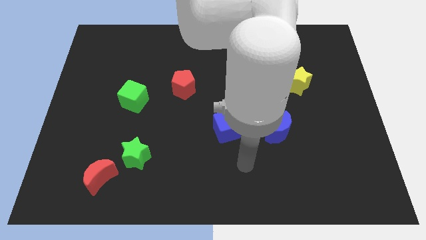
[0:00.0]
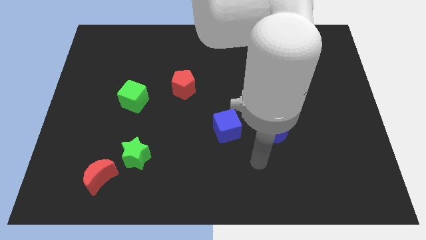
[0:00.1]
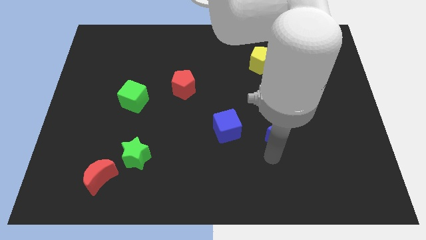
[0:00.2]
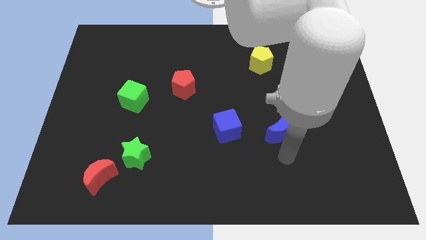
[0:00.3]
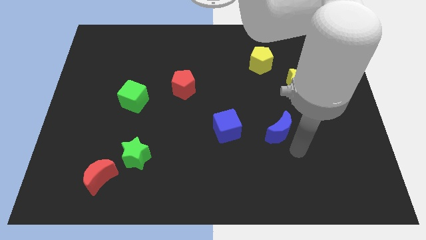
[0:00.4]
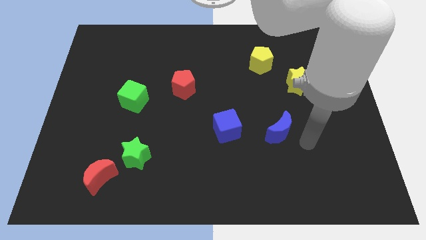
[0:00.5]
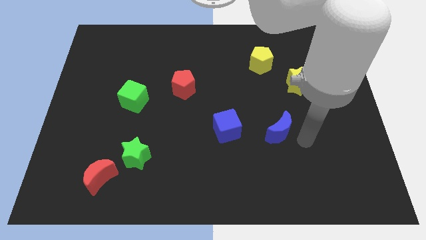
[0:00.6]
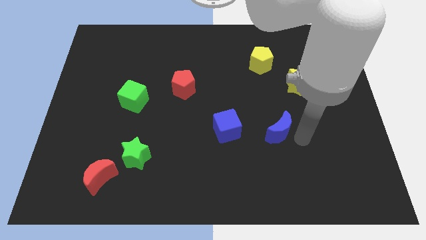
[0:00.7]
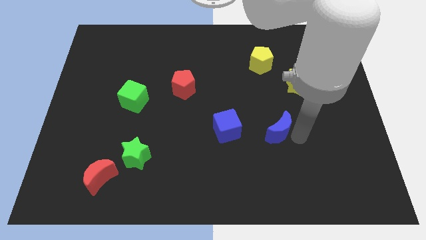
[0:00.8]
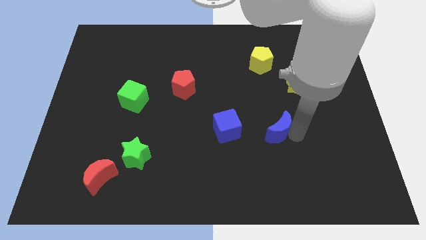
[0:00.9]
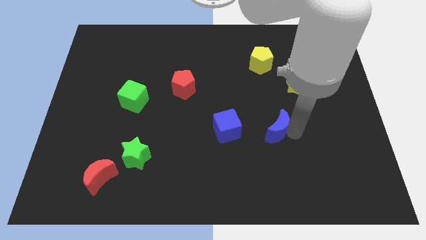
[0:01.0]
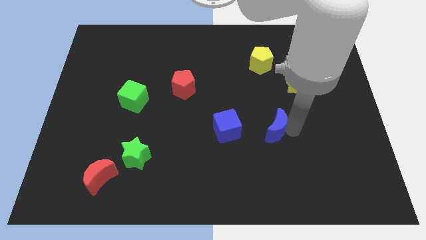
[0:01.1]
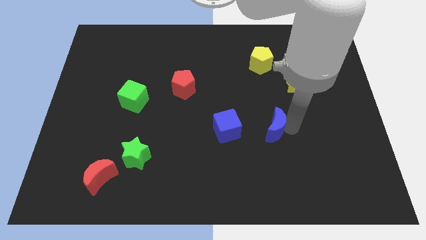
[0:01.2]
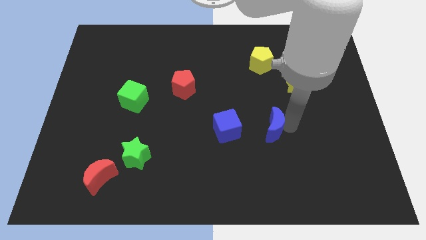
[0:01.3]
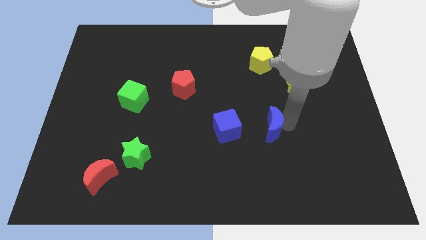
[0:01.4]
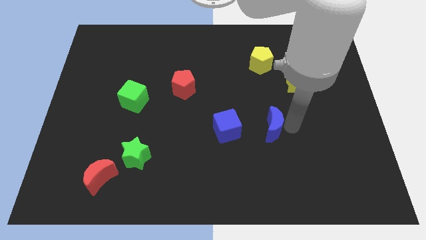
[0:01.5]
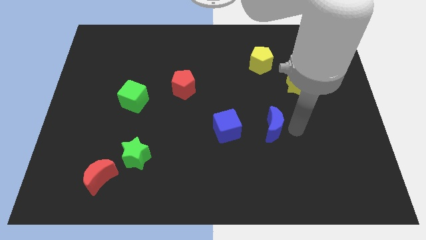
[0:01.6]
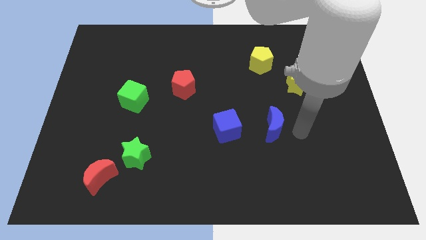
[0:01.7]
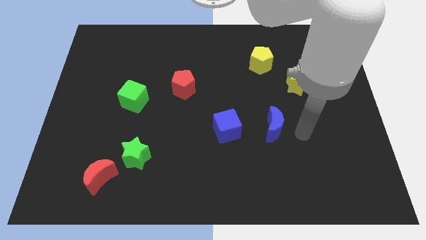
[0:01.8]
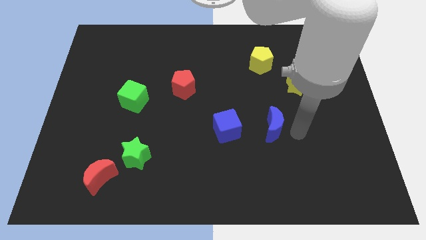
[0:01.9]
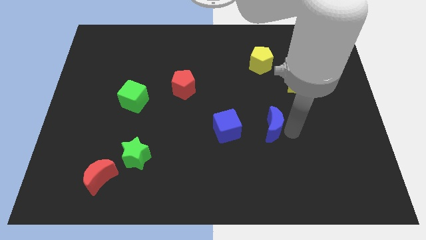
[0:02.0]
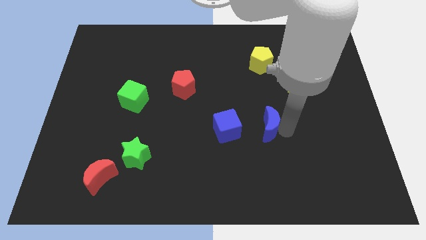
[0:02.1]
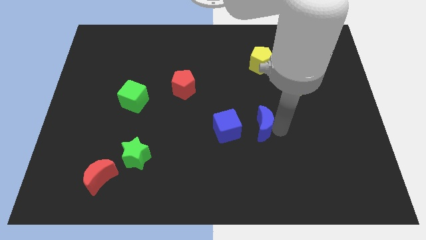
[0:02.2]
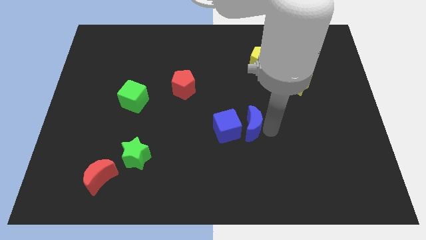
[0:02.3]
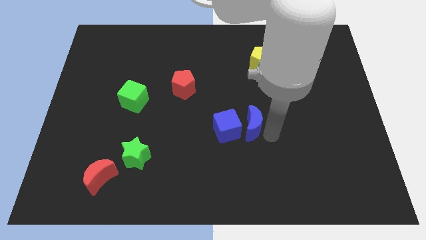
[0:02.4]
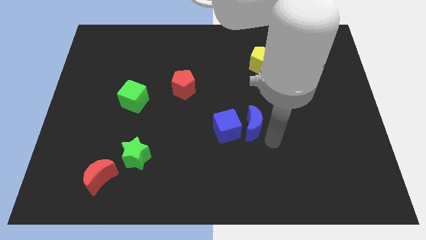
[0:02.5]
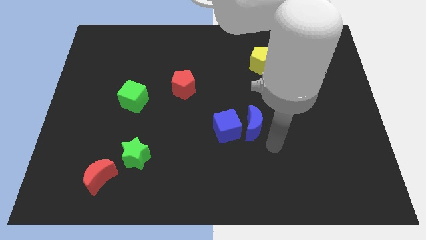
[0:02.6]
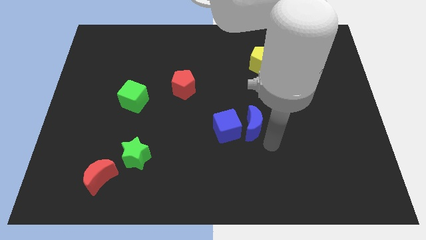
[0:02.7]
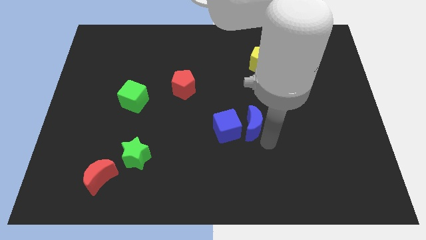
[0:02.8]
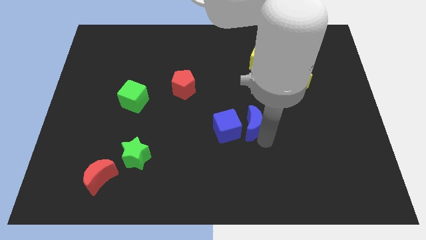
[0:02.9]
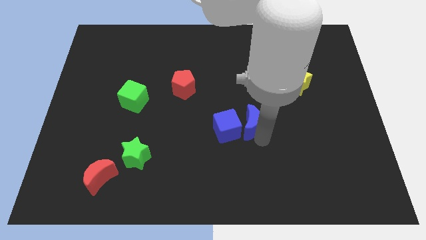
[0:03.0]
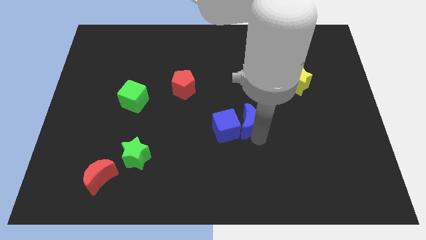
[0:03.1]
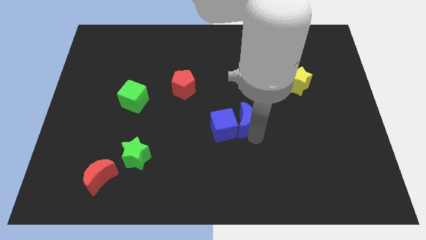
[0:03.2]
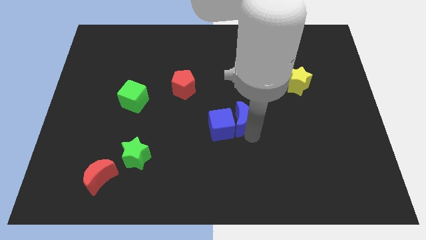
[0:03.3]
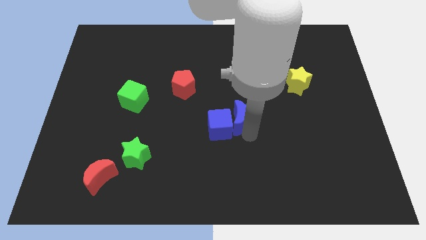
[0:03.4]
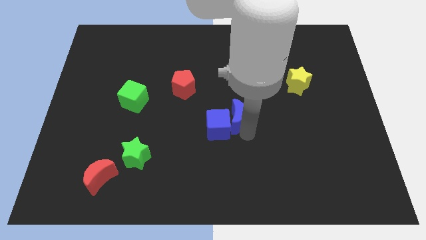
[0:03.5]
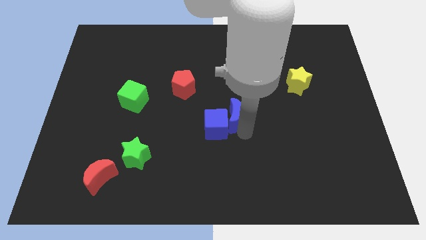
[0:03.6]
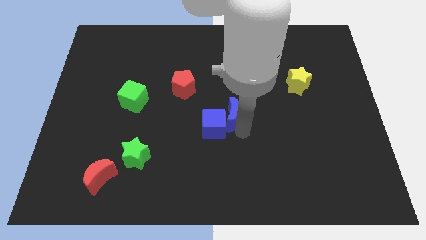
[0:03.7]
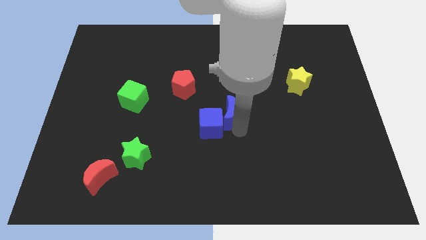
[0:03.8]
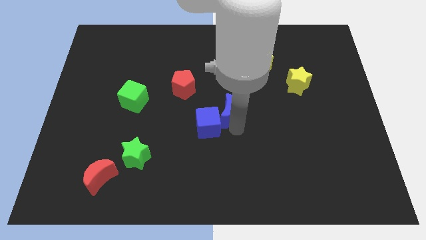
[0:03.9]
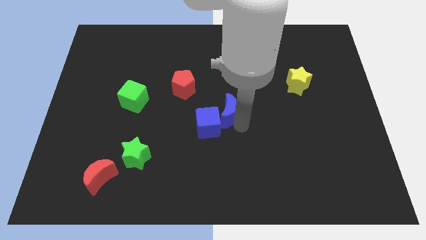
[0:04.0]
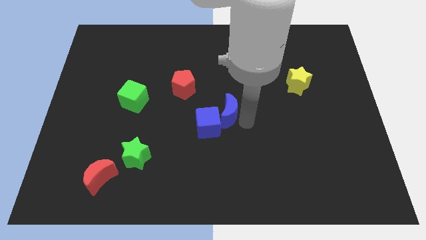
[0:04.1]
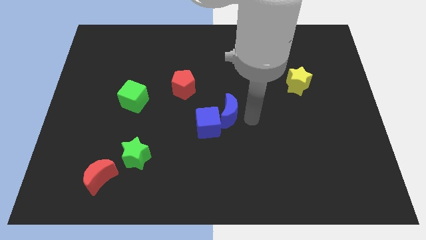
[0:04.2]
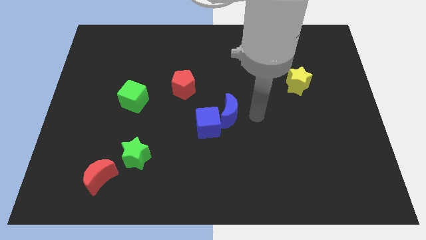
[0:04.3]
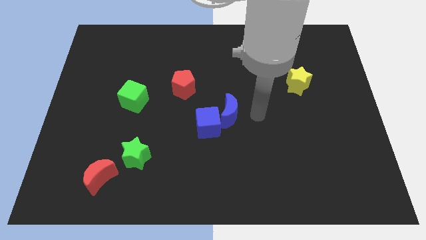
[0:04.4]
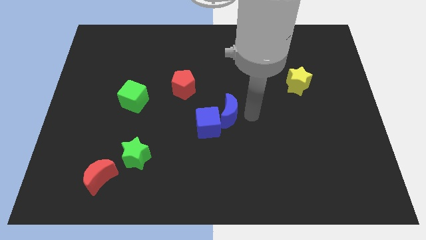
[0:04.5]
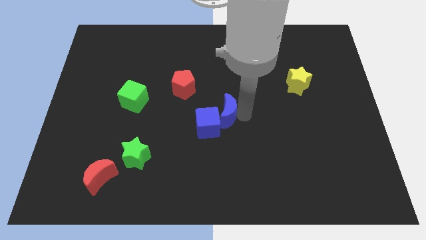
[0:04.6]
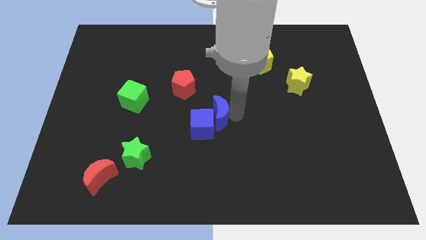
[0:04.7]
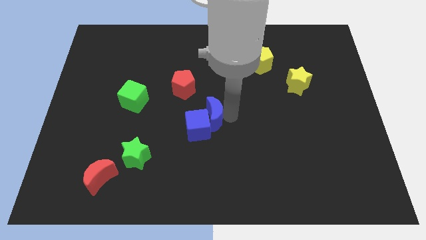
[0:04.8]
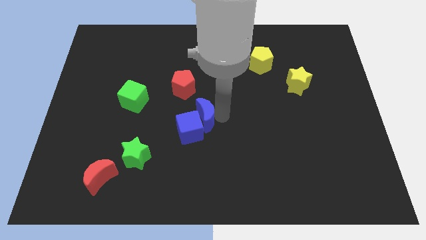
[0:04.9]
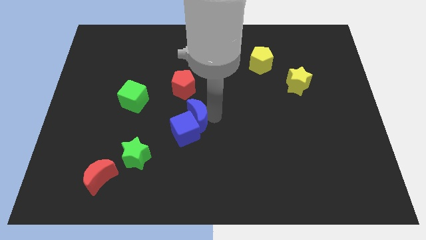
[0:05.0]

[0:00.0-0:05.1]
push the blue moon to the bottom of the red pentagon

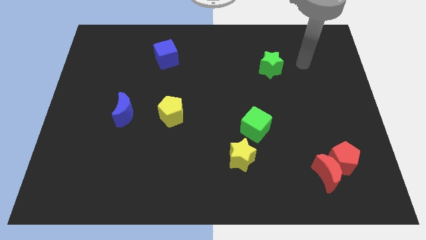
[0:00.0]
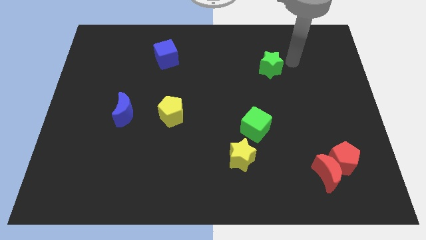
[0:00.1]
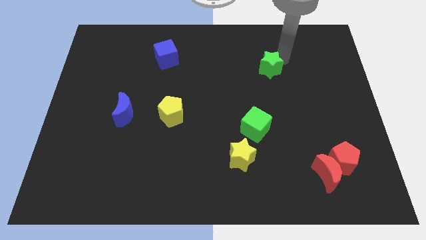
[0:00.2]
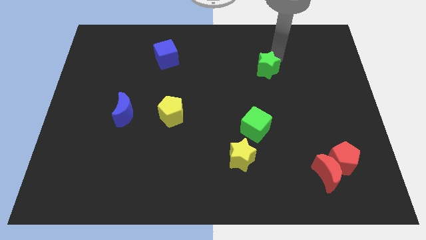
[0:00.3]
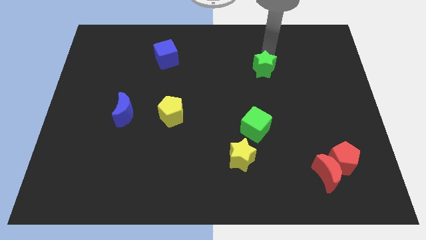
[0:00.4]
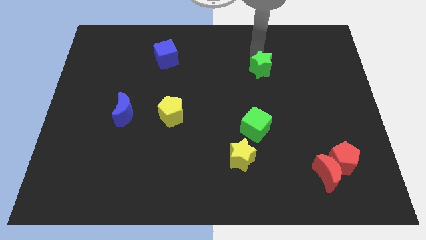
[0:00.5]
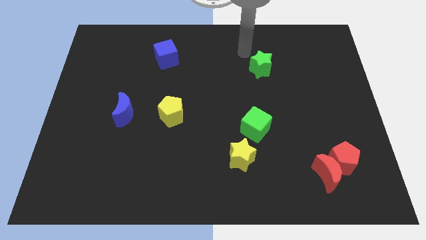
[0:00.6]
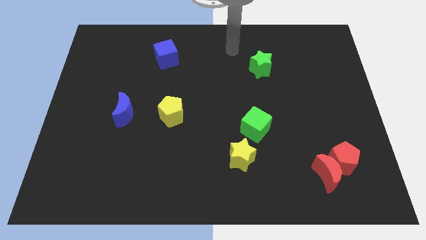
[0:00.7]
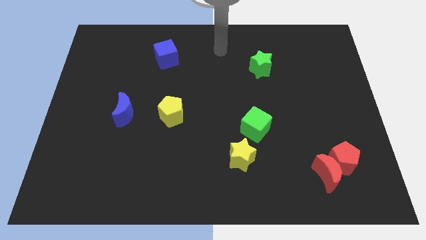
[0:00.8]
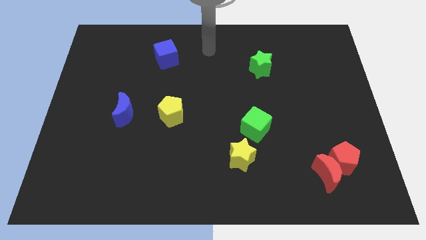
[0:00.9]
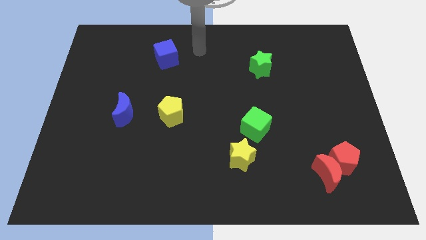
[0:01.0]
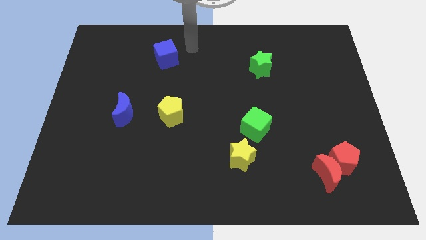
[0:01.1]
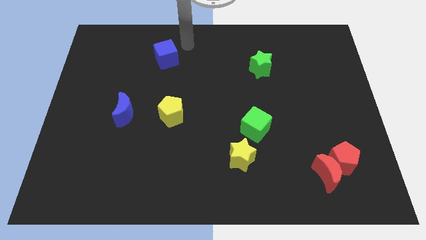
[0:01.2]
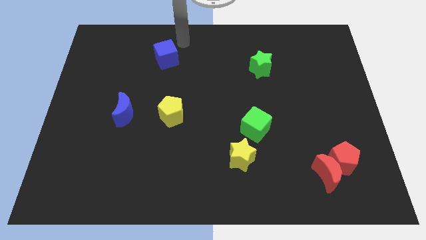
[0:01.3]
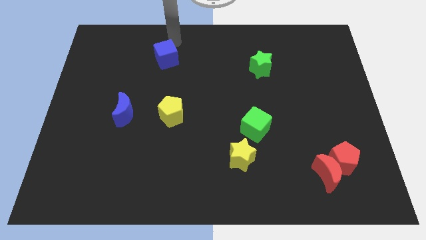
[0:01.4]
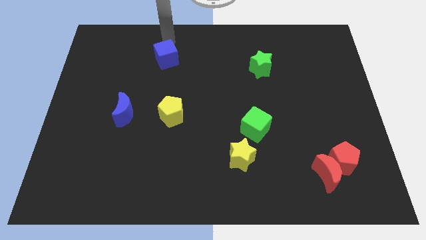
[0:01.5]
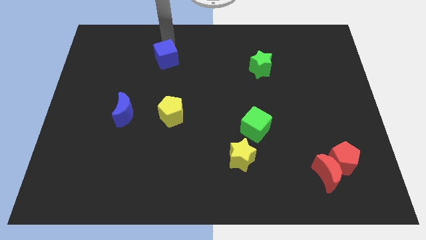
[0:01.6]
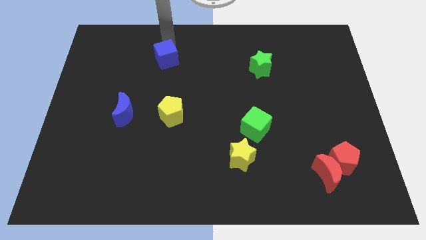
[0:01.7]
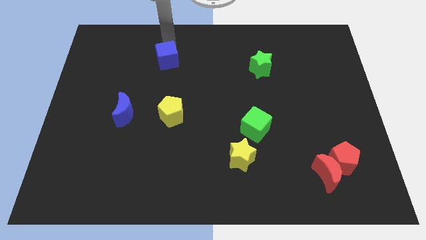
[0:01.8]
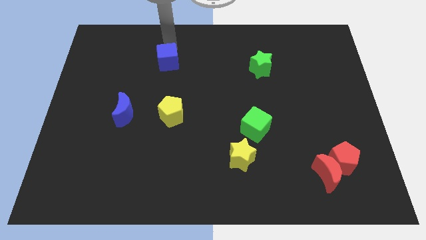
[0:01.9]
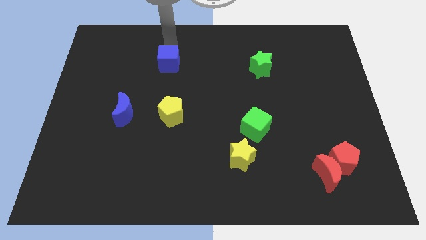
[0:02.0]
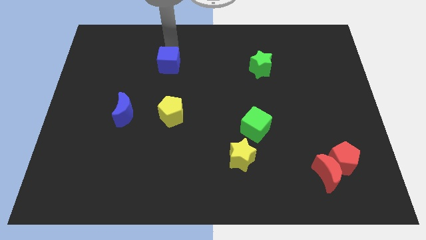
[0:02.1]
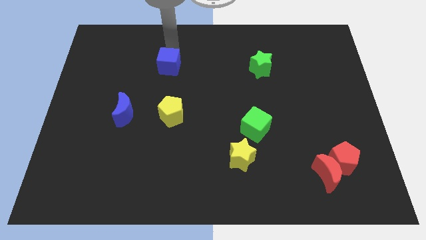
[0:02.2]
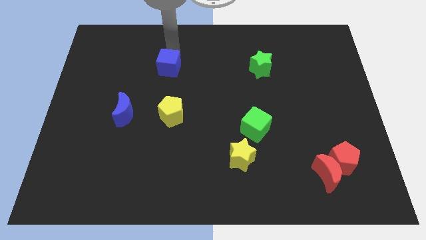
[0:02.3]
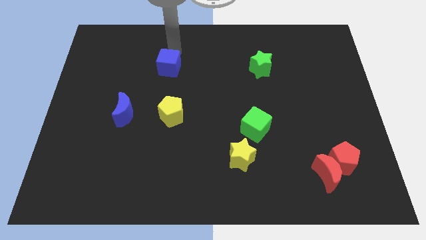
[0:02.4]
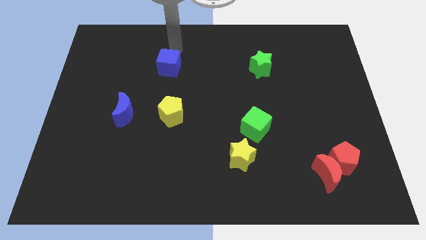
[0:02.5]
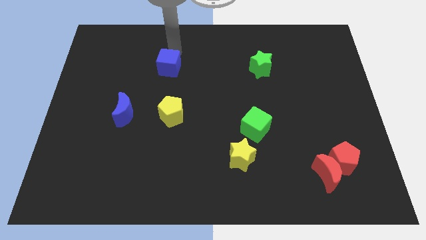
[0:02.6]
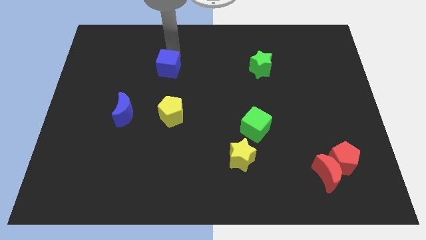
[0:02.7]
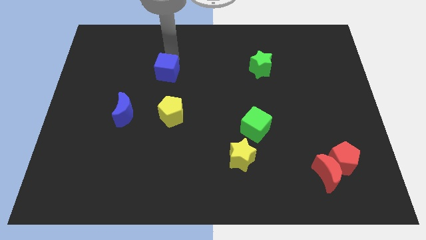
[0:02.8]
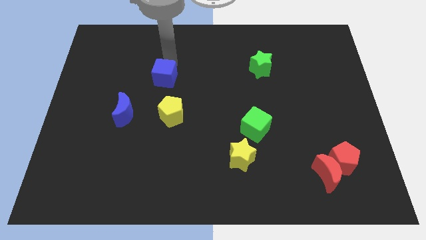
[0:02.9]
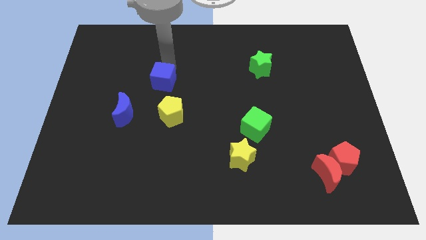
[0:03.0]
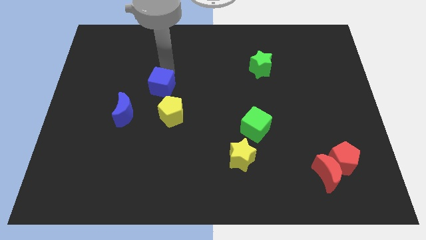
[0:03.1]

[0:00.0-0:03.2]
move the blue cube to the top left of the yellow pentagon

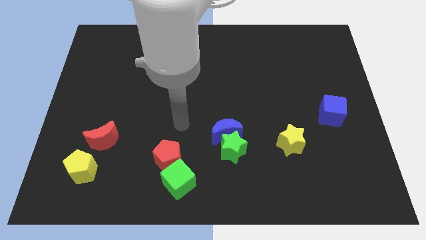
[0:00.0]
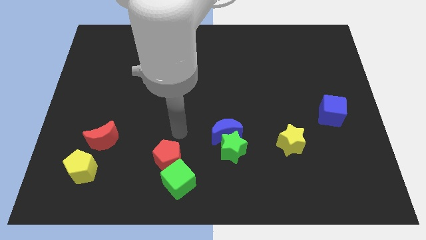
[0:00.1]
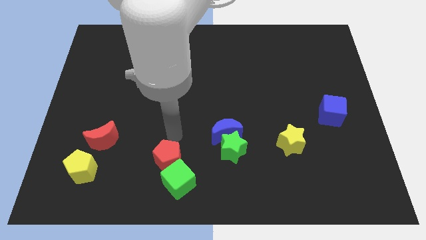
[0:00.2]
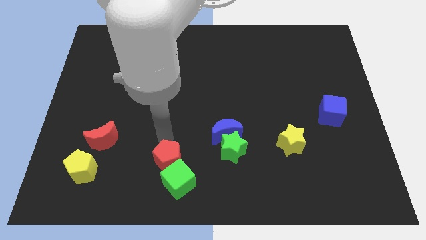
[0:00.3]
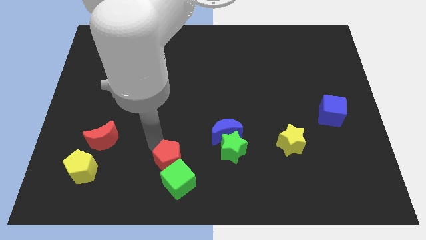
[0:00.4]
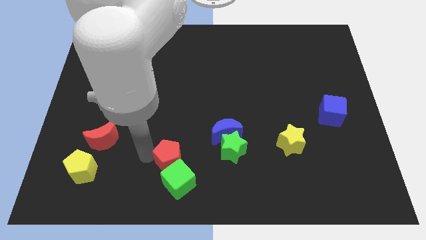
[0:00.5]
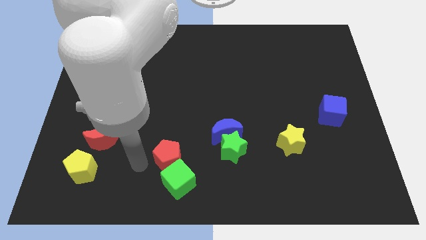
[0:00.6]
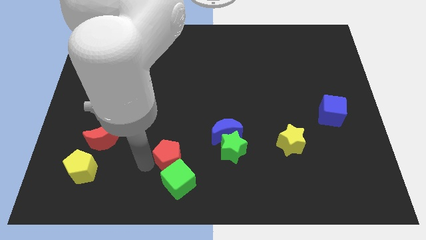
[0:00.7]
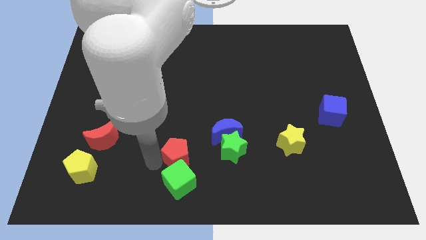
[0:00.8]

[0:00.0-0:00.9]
put the red pentagon to the bottom left of the blue moon
